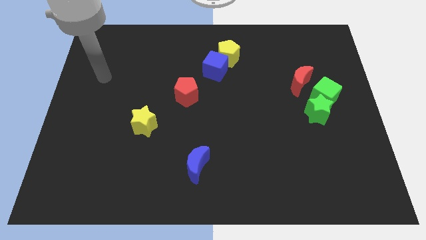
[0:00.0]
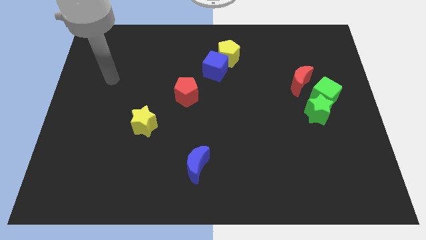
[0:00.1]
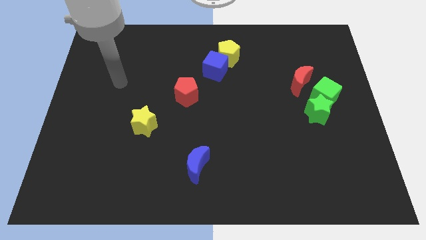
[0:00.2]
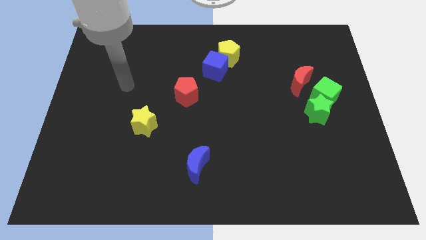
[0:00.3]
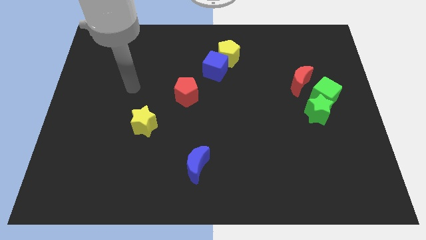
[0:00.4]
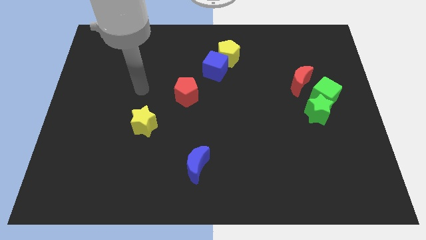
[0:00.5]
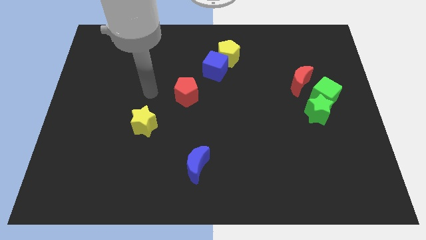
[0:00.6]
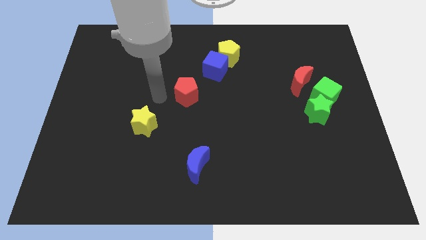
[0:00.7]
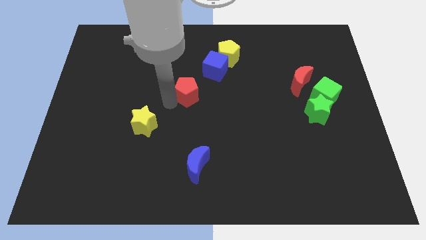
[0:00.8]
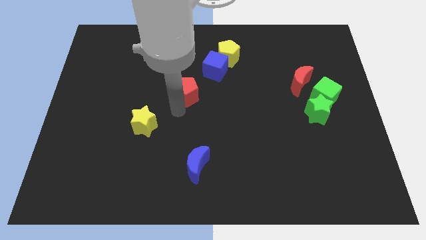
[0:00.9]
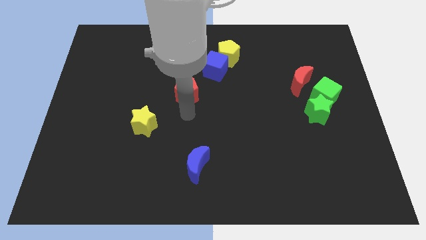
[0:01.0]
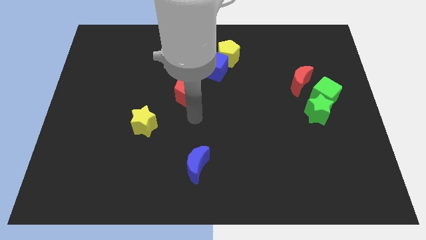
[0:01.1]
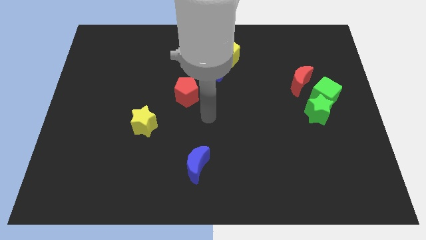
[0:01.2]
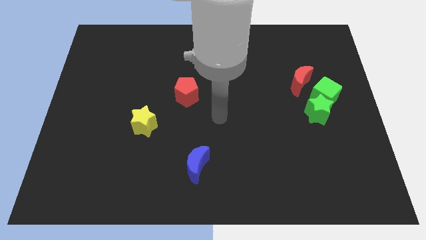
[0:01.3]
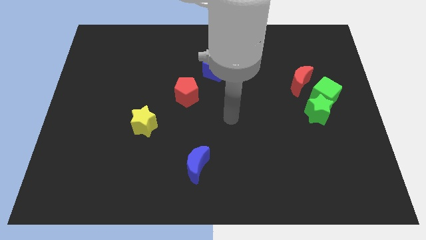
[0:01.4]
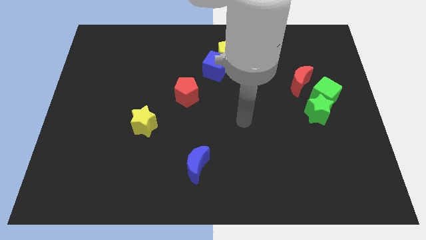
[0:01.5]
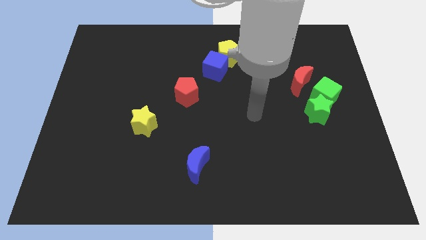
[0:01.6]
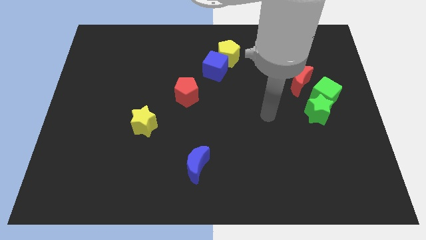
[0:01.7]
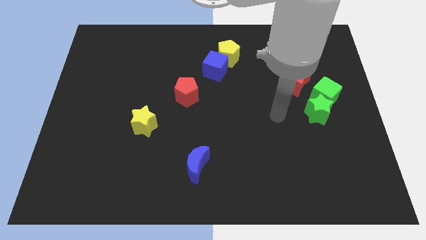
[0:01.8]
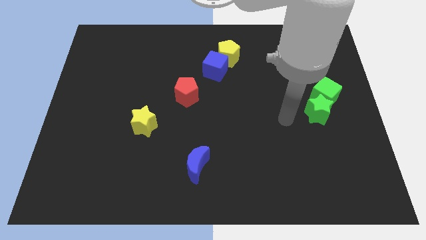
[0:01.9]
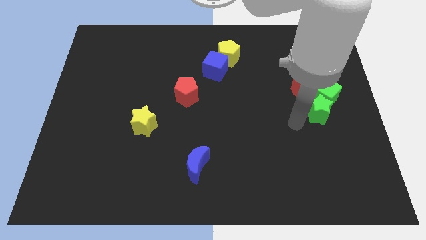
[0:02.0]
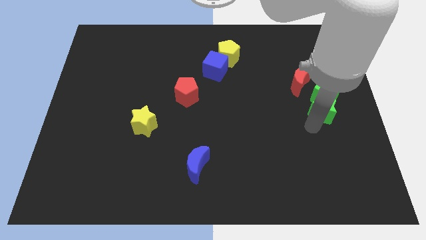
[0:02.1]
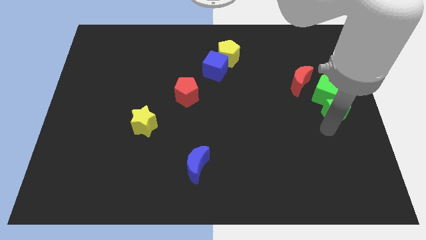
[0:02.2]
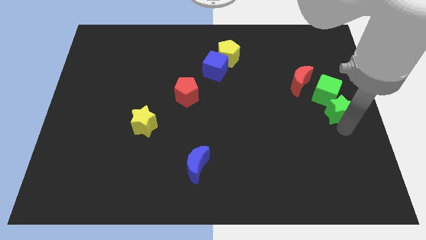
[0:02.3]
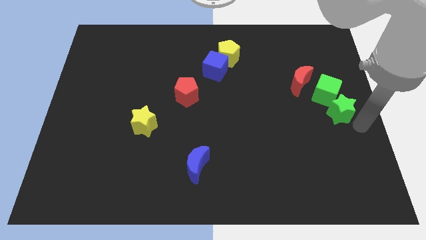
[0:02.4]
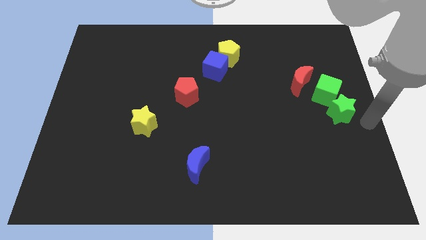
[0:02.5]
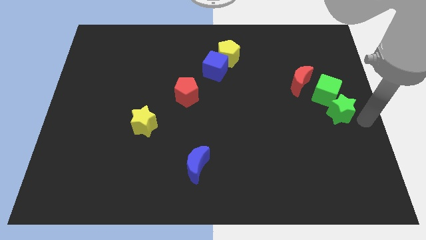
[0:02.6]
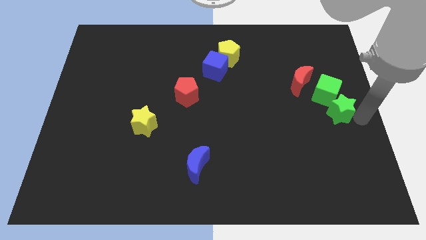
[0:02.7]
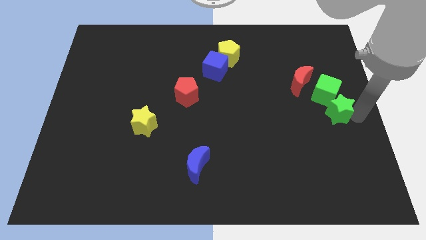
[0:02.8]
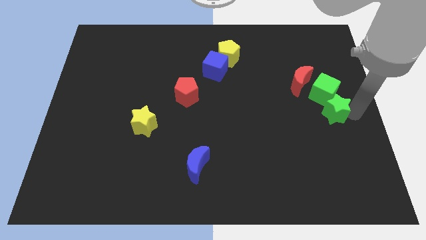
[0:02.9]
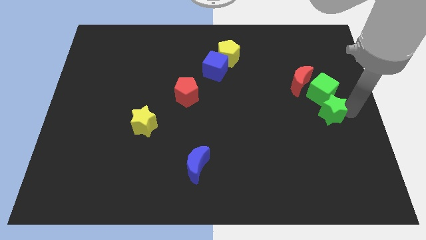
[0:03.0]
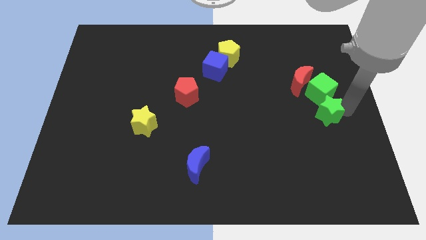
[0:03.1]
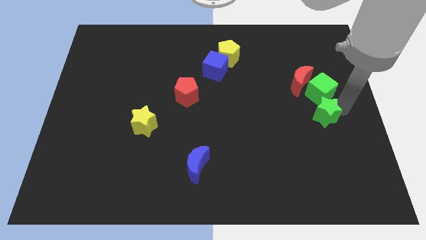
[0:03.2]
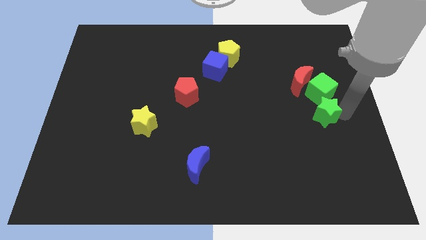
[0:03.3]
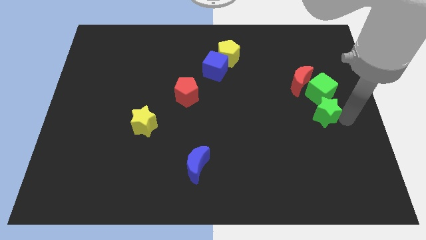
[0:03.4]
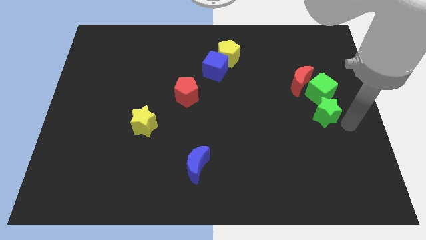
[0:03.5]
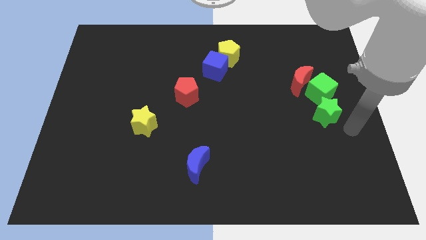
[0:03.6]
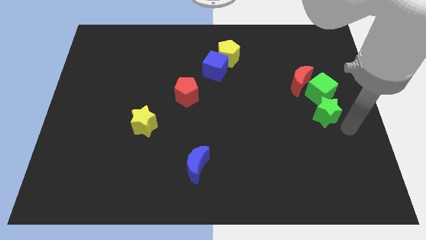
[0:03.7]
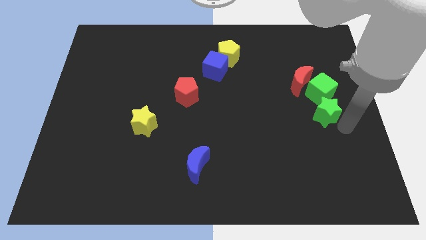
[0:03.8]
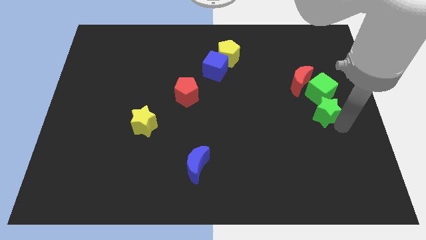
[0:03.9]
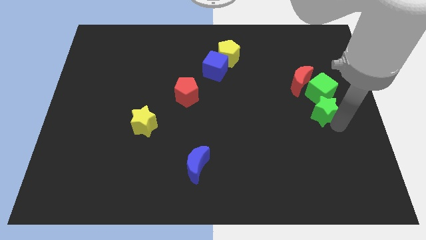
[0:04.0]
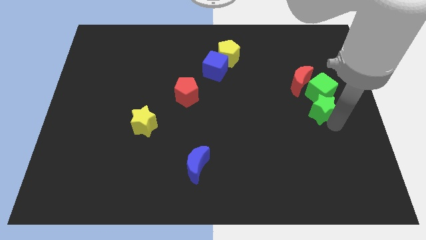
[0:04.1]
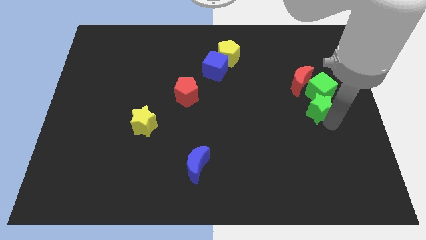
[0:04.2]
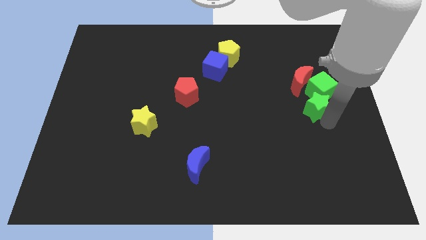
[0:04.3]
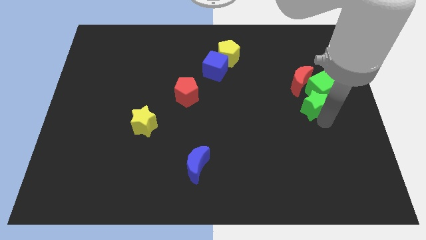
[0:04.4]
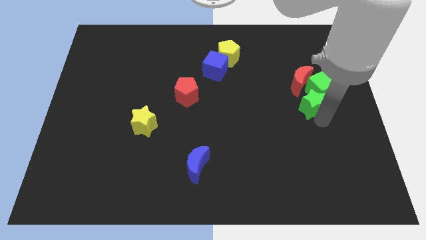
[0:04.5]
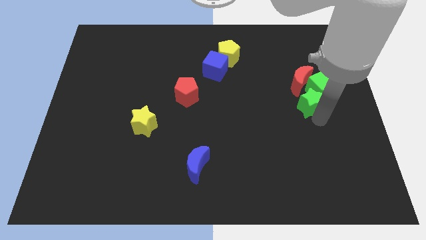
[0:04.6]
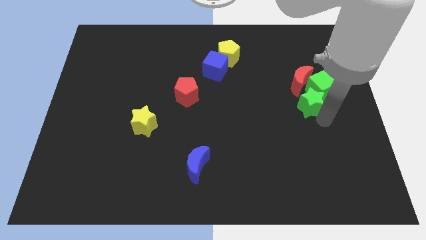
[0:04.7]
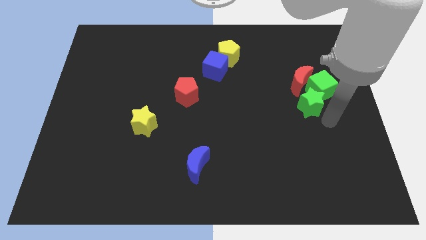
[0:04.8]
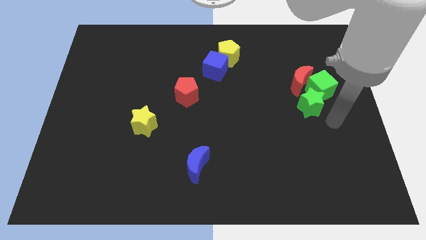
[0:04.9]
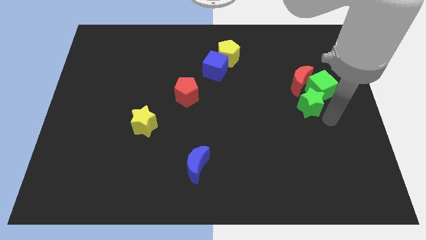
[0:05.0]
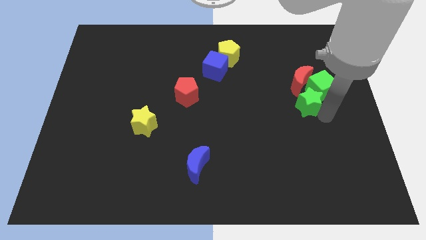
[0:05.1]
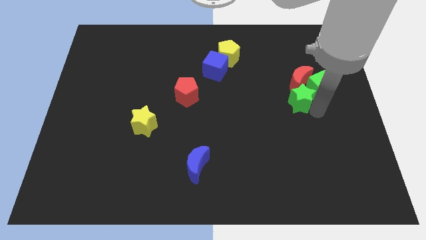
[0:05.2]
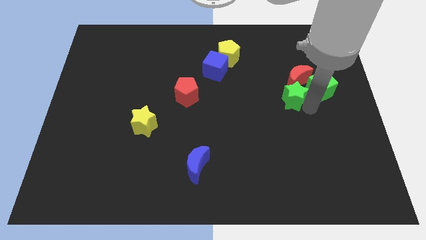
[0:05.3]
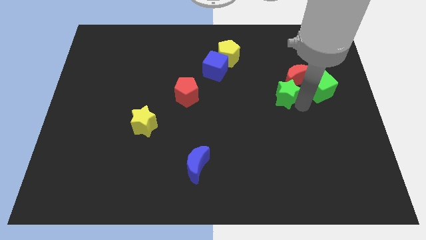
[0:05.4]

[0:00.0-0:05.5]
slightly push the green star up and left diagonally

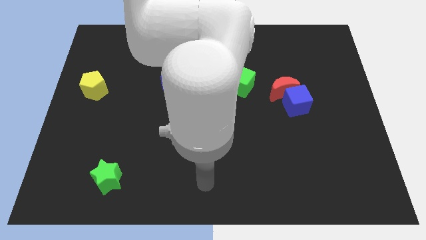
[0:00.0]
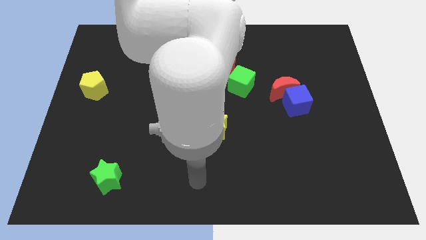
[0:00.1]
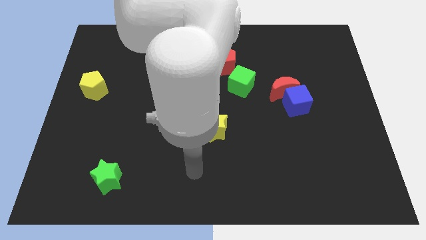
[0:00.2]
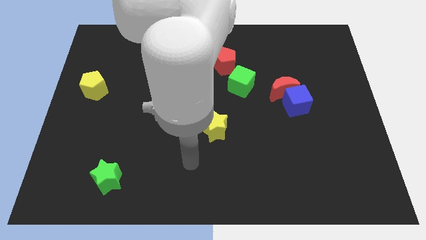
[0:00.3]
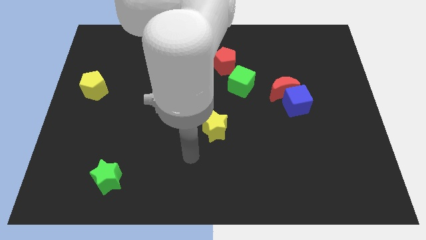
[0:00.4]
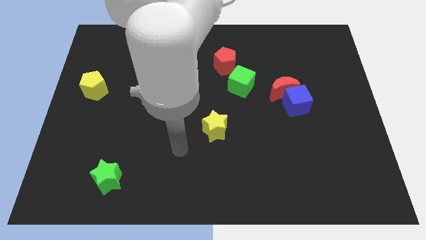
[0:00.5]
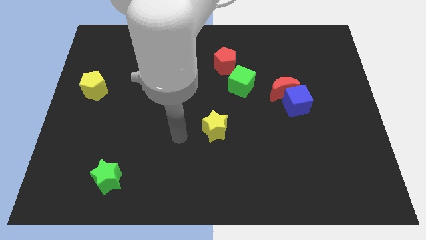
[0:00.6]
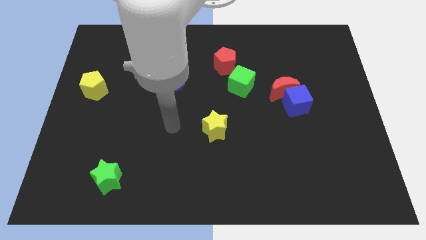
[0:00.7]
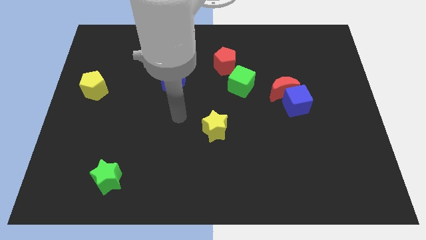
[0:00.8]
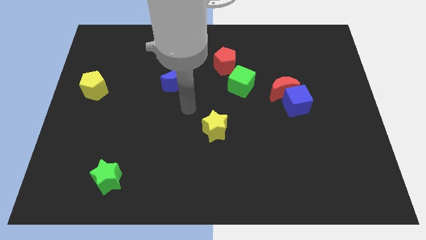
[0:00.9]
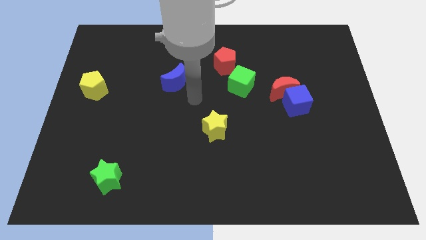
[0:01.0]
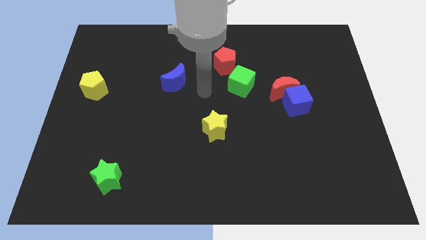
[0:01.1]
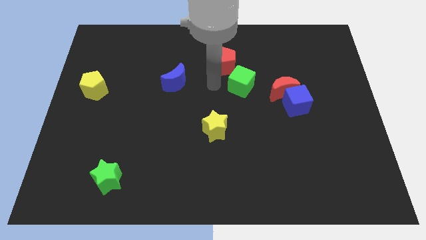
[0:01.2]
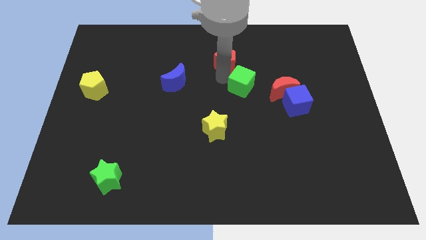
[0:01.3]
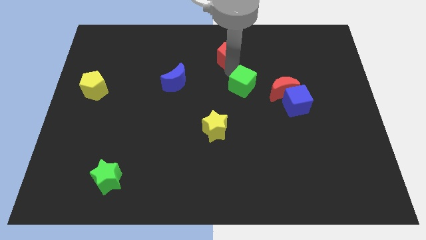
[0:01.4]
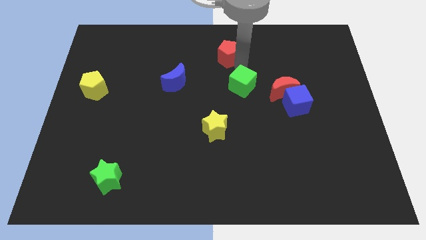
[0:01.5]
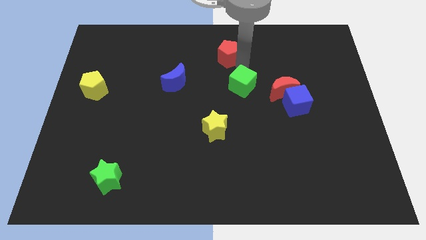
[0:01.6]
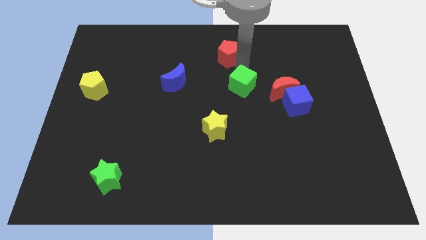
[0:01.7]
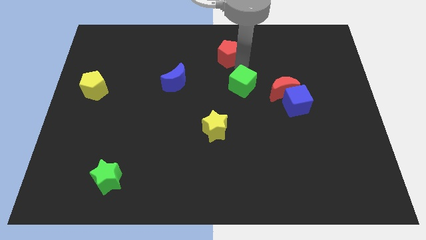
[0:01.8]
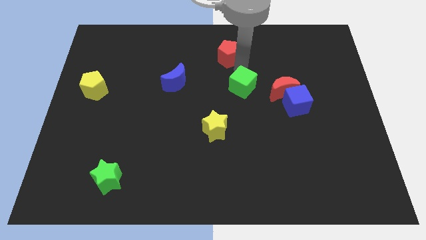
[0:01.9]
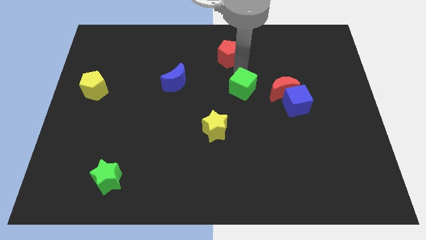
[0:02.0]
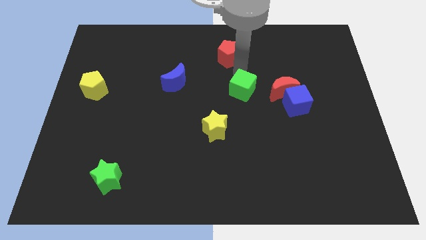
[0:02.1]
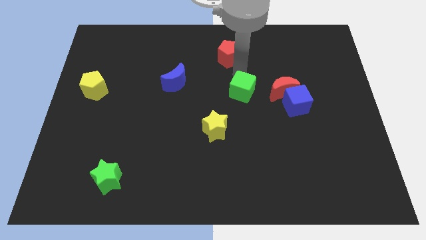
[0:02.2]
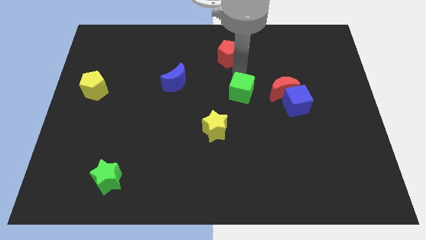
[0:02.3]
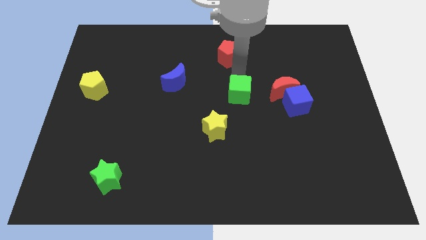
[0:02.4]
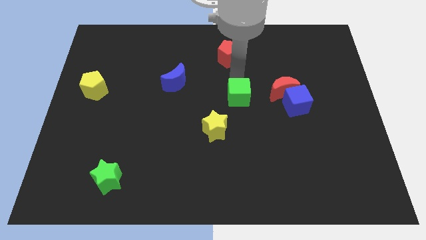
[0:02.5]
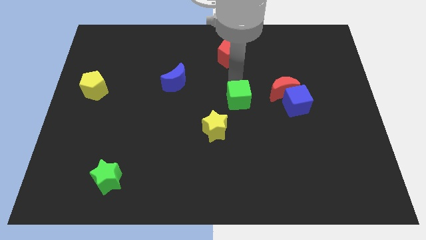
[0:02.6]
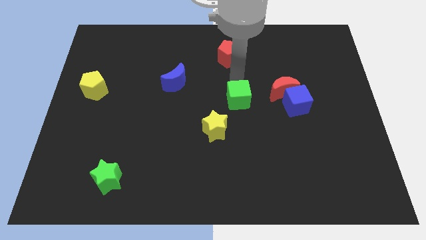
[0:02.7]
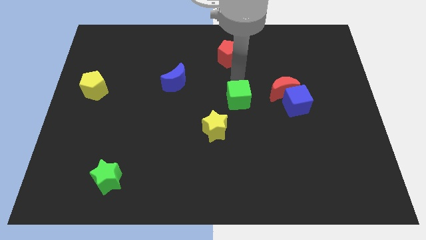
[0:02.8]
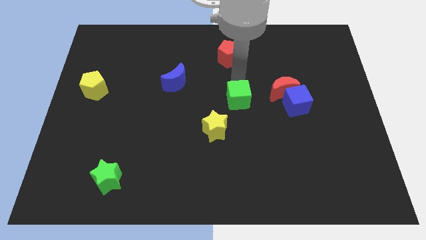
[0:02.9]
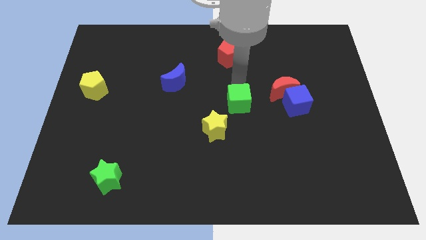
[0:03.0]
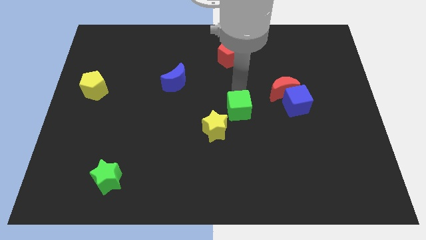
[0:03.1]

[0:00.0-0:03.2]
slide the green cube slightly downwards

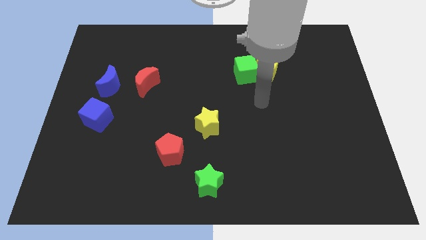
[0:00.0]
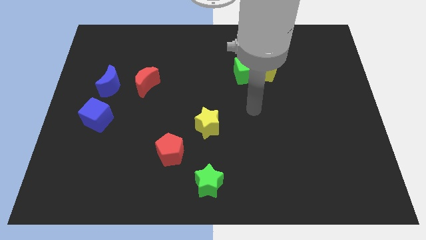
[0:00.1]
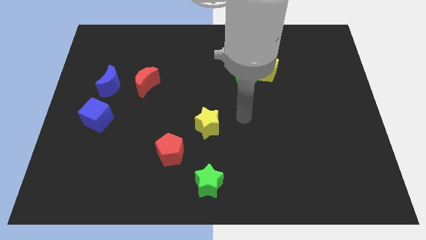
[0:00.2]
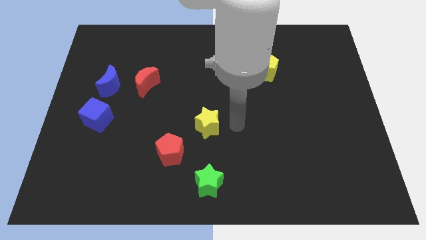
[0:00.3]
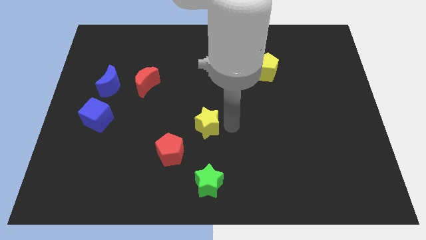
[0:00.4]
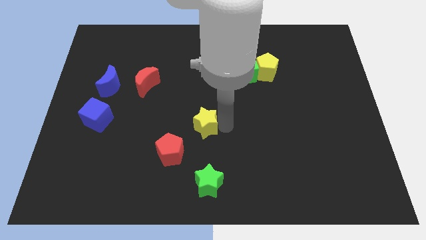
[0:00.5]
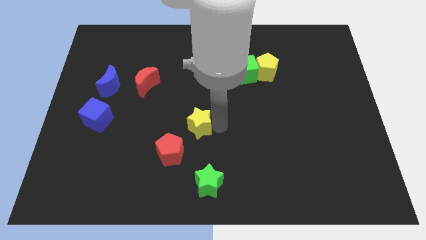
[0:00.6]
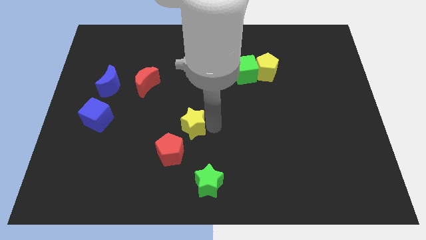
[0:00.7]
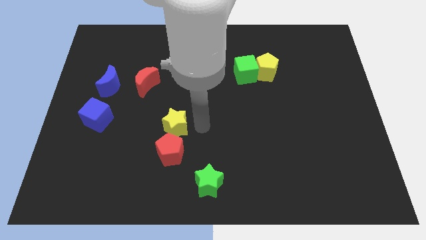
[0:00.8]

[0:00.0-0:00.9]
slightly slide the yellow star left
